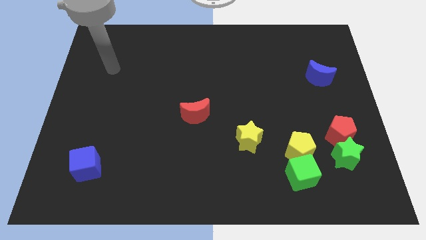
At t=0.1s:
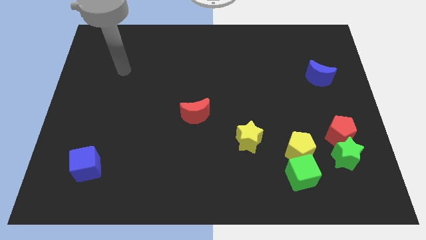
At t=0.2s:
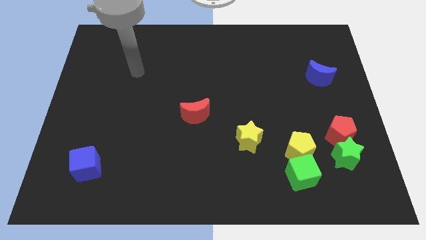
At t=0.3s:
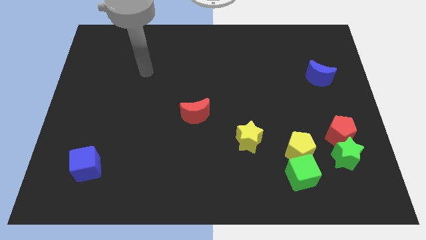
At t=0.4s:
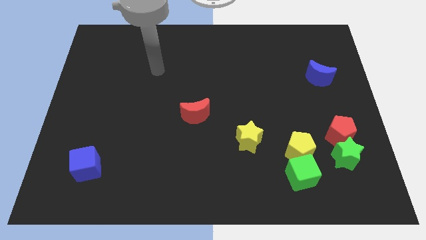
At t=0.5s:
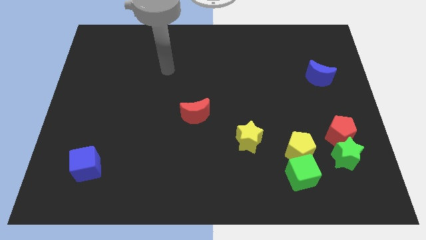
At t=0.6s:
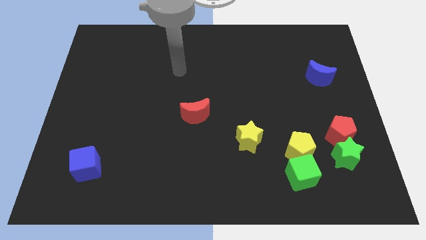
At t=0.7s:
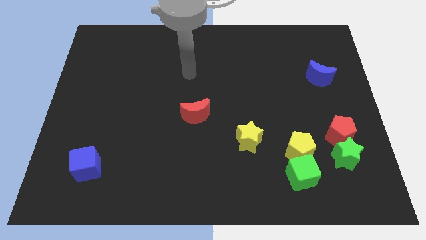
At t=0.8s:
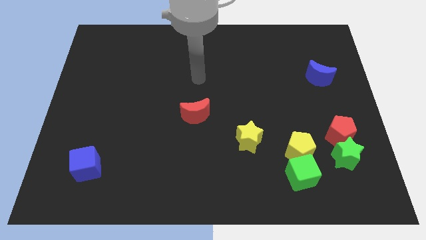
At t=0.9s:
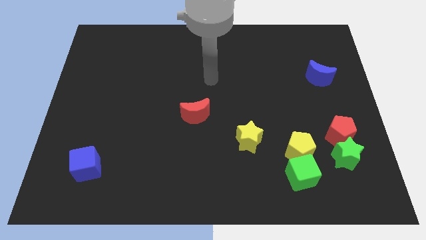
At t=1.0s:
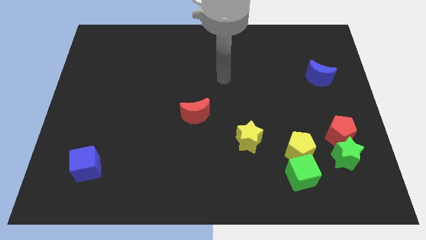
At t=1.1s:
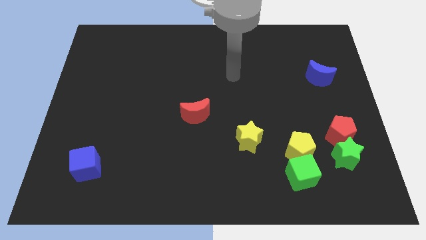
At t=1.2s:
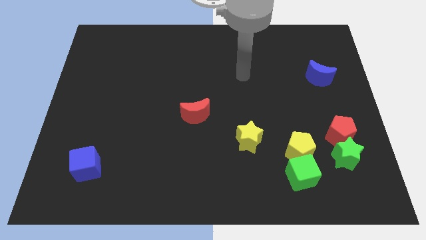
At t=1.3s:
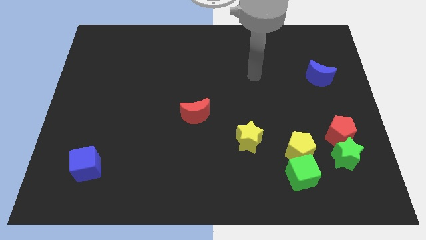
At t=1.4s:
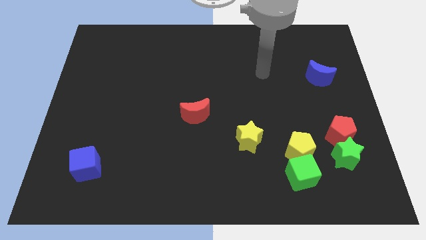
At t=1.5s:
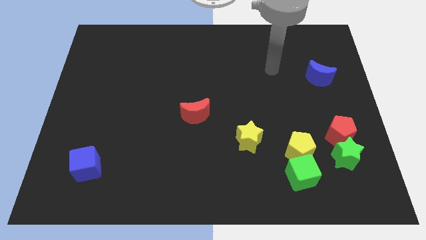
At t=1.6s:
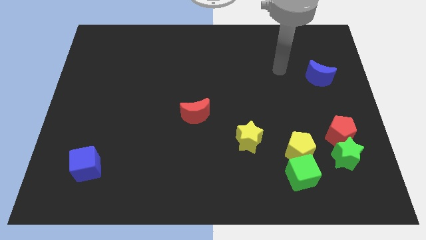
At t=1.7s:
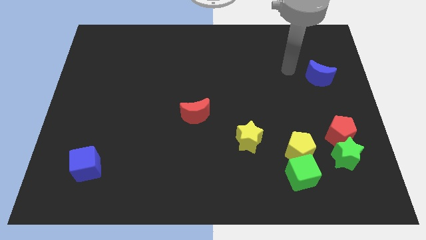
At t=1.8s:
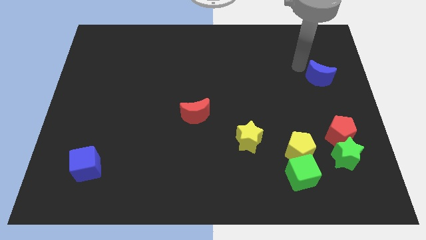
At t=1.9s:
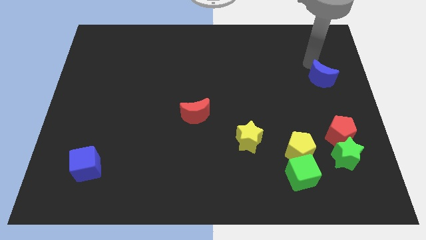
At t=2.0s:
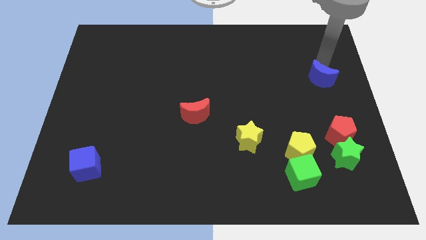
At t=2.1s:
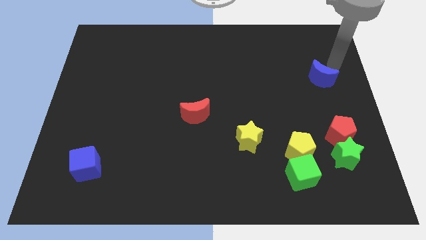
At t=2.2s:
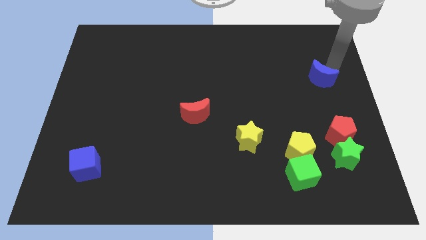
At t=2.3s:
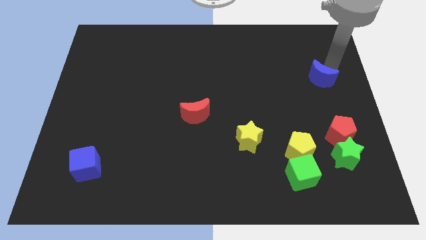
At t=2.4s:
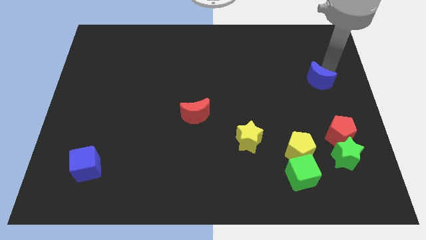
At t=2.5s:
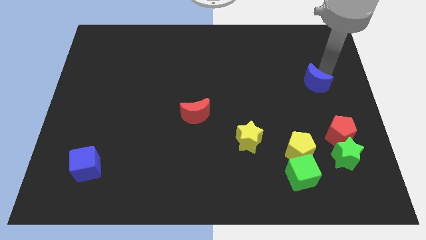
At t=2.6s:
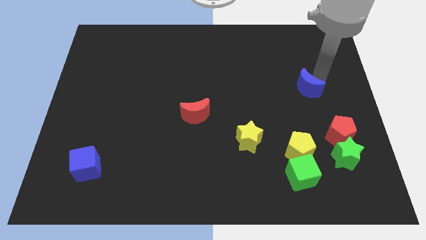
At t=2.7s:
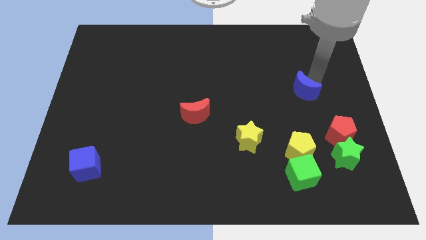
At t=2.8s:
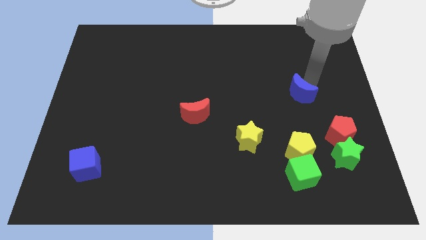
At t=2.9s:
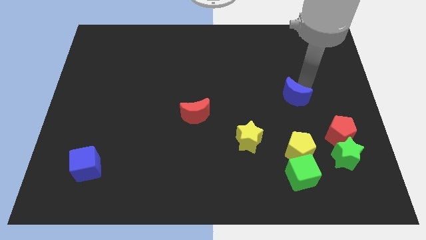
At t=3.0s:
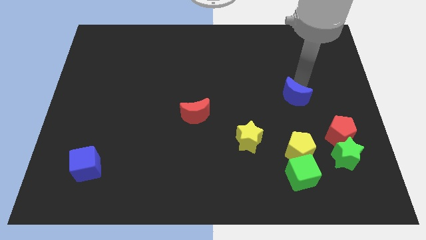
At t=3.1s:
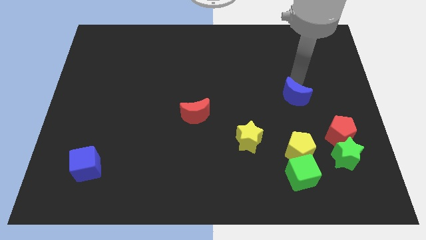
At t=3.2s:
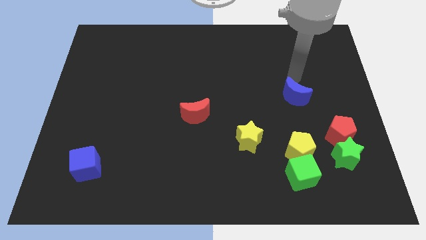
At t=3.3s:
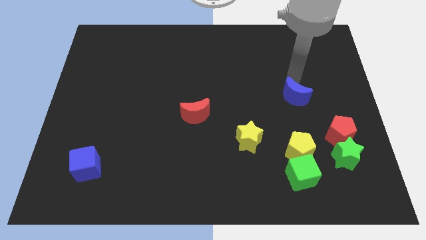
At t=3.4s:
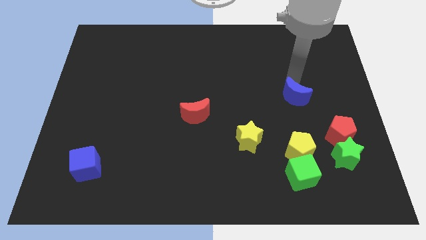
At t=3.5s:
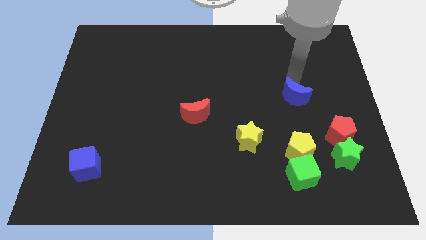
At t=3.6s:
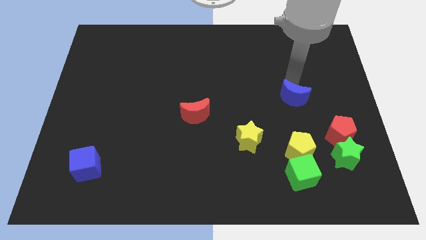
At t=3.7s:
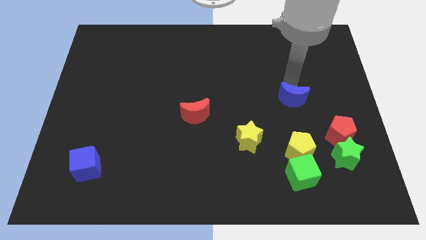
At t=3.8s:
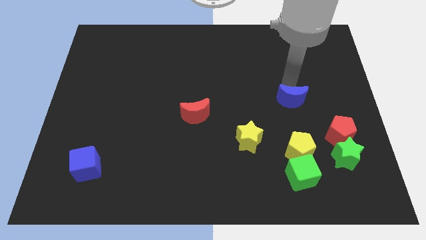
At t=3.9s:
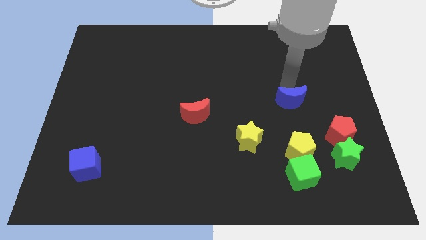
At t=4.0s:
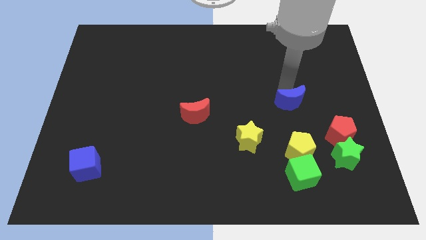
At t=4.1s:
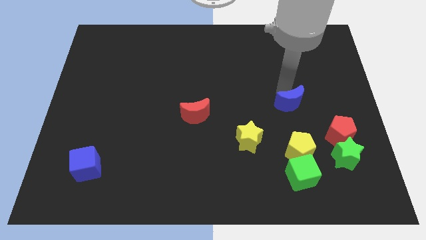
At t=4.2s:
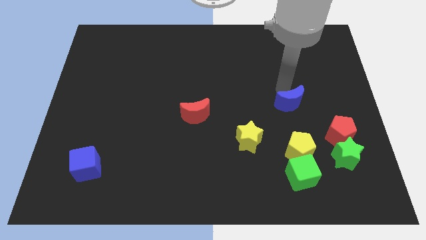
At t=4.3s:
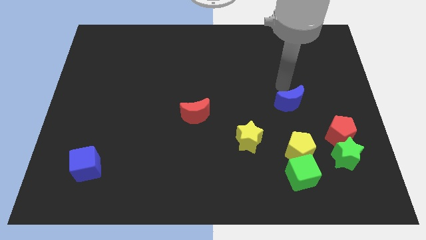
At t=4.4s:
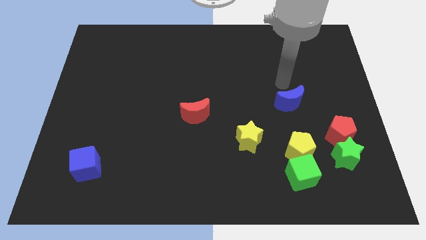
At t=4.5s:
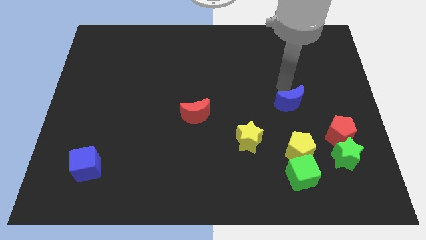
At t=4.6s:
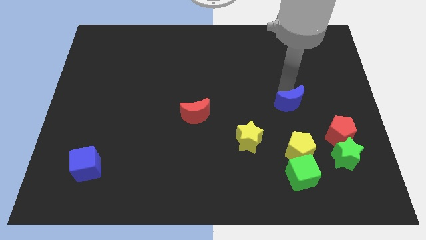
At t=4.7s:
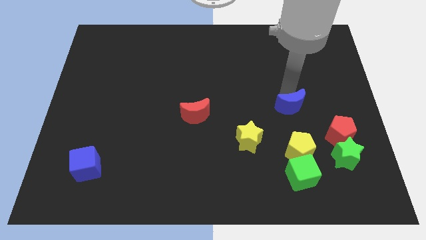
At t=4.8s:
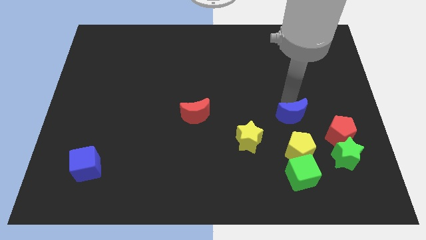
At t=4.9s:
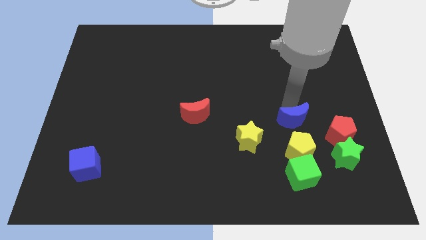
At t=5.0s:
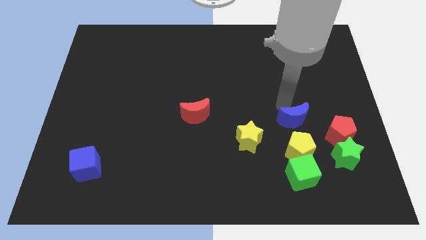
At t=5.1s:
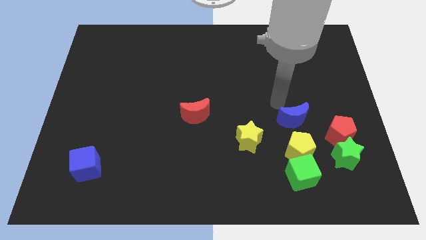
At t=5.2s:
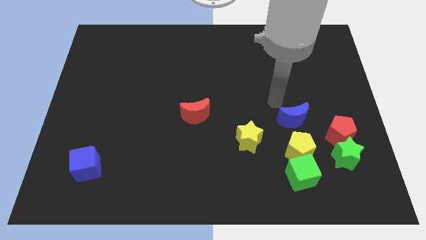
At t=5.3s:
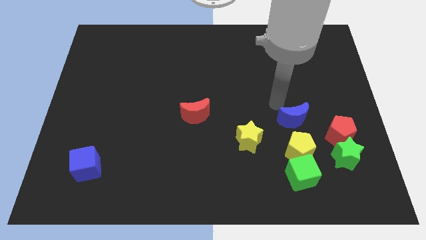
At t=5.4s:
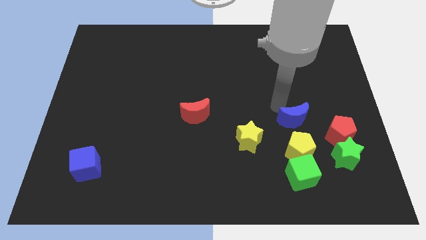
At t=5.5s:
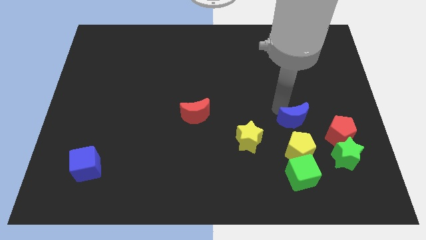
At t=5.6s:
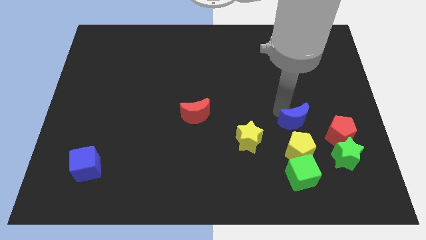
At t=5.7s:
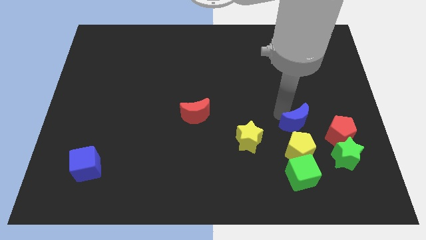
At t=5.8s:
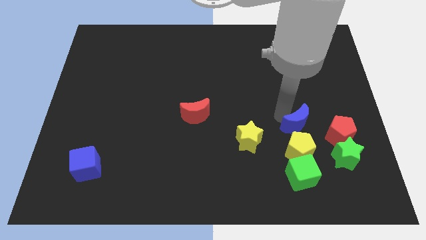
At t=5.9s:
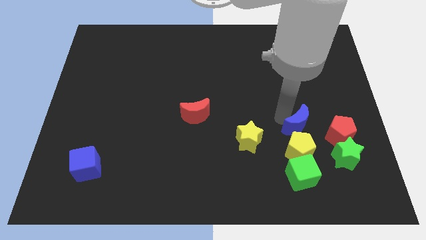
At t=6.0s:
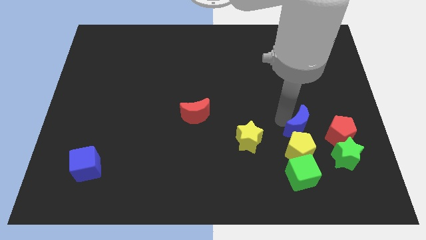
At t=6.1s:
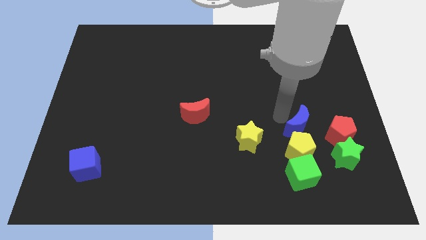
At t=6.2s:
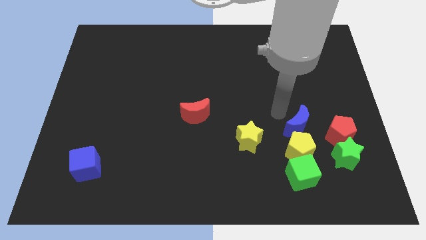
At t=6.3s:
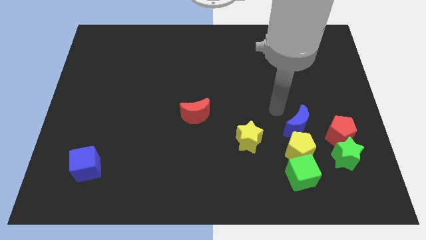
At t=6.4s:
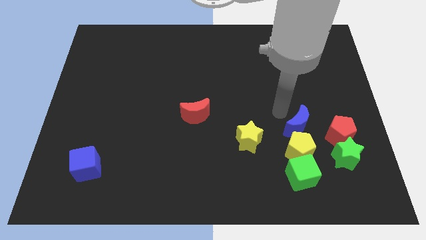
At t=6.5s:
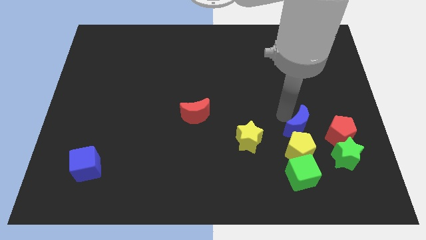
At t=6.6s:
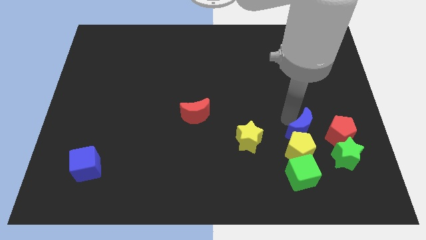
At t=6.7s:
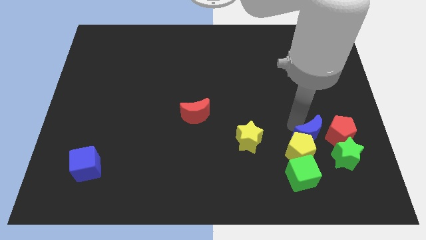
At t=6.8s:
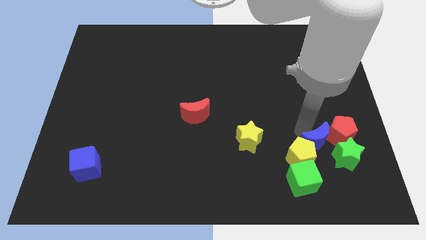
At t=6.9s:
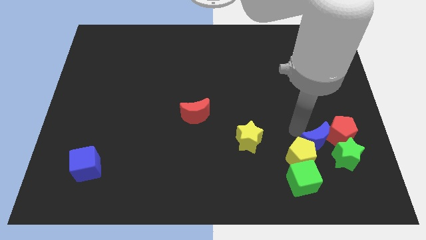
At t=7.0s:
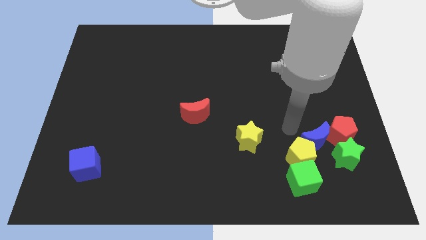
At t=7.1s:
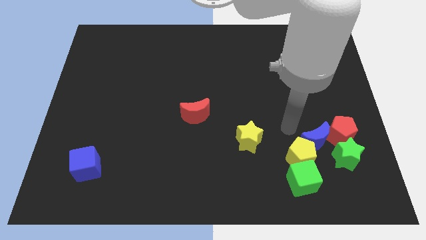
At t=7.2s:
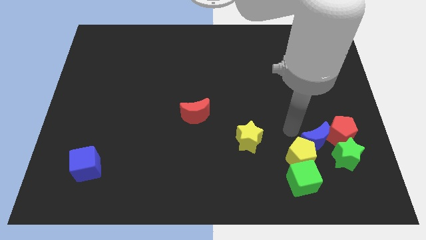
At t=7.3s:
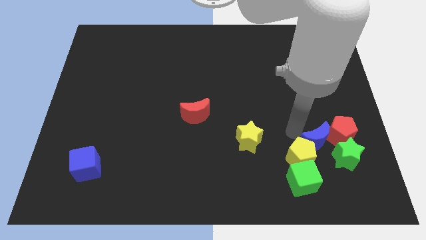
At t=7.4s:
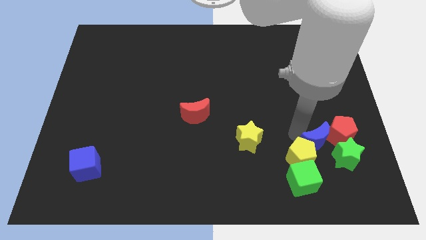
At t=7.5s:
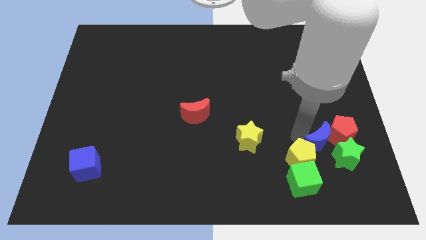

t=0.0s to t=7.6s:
slide the blue moon close to the green star
